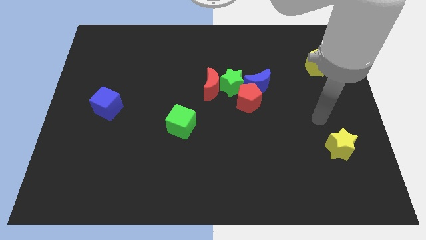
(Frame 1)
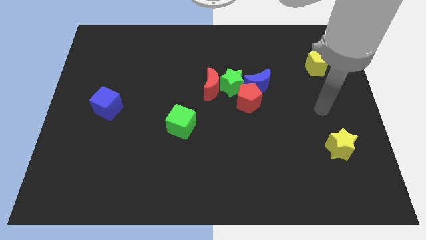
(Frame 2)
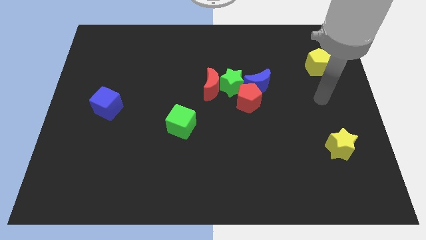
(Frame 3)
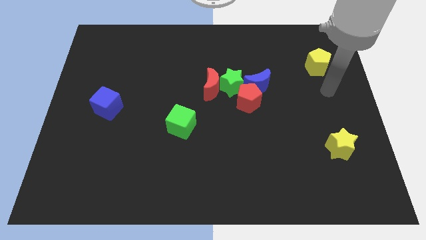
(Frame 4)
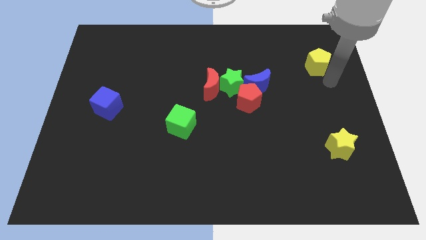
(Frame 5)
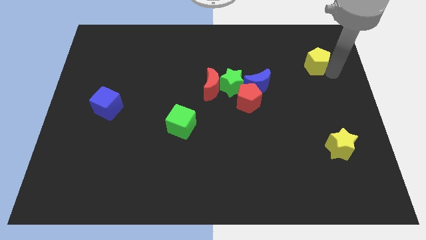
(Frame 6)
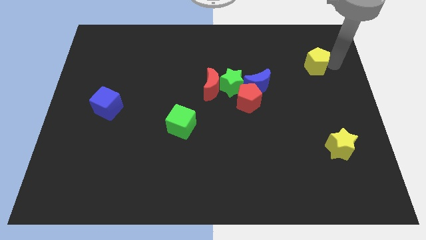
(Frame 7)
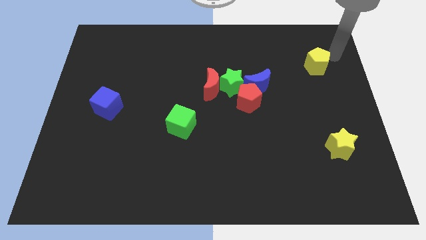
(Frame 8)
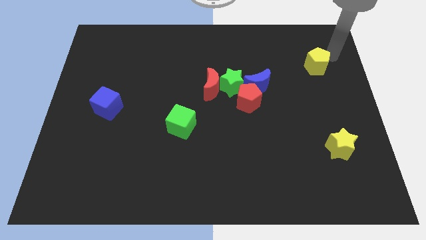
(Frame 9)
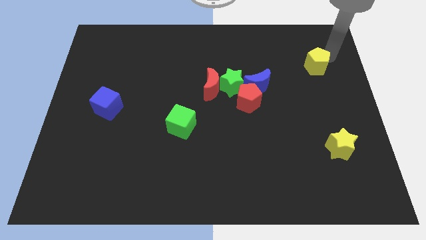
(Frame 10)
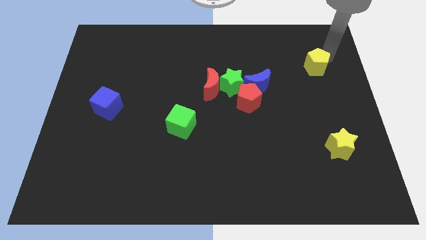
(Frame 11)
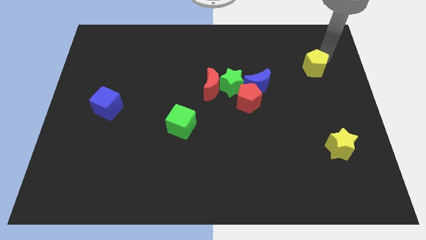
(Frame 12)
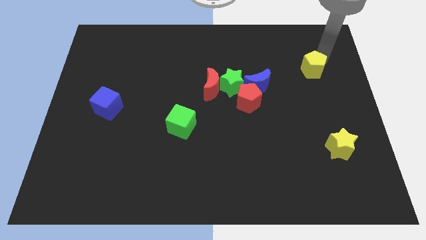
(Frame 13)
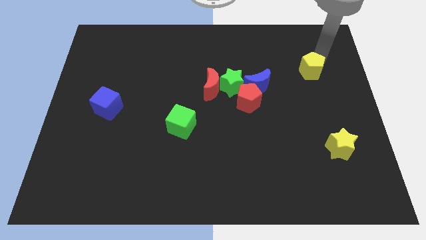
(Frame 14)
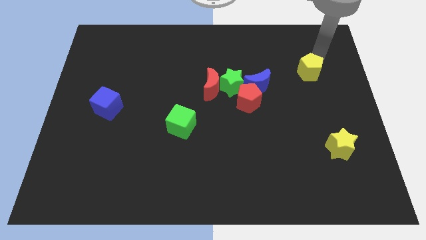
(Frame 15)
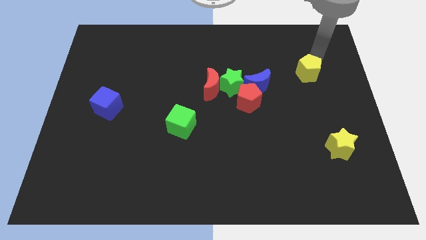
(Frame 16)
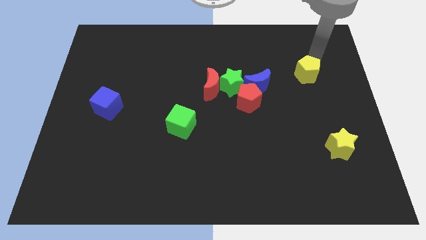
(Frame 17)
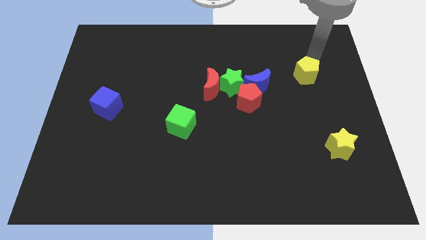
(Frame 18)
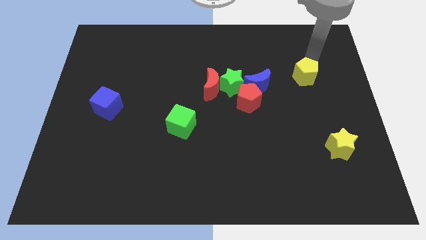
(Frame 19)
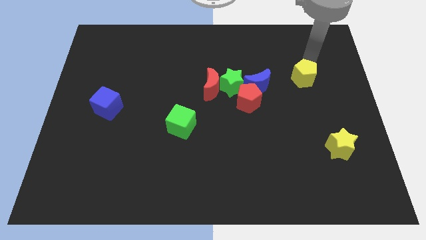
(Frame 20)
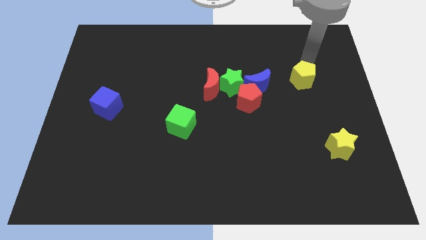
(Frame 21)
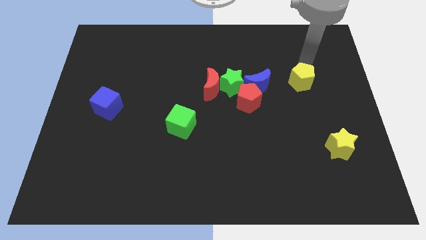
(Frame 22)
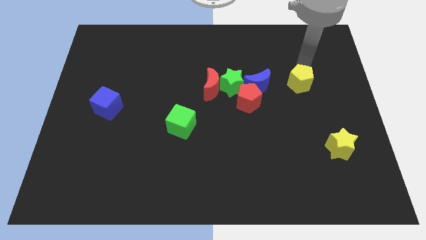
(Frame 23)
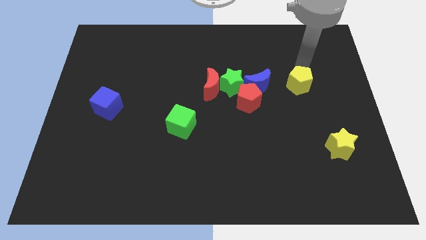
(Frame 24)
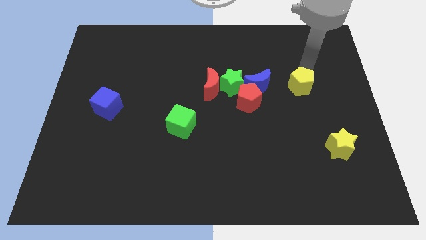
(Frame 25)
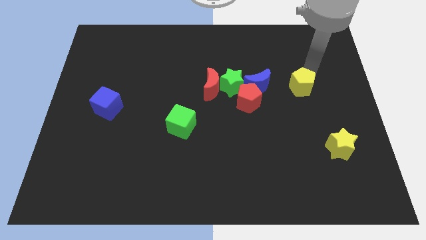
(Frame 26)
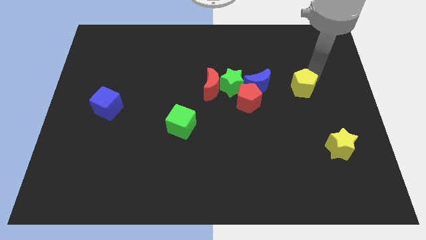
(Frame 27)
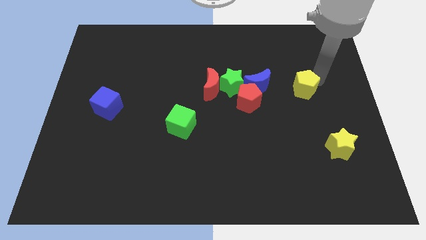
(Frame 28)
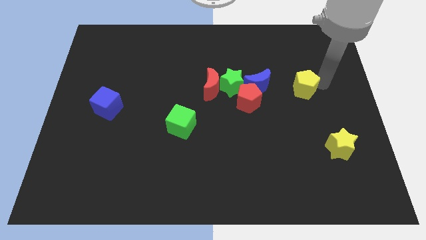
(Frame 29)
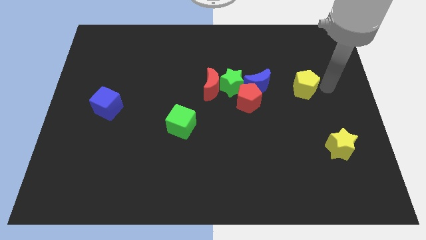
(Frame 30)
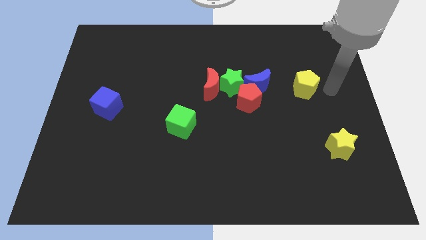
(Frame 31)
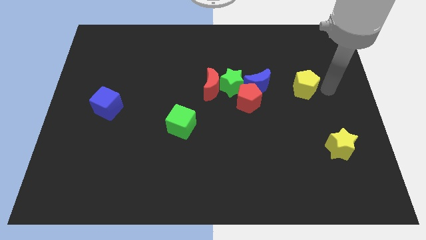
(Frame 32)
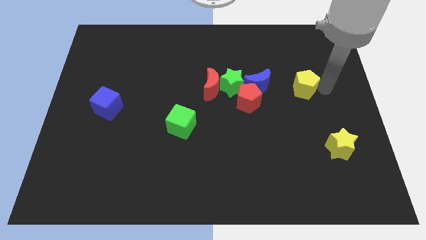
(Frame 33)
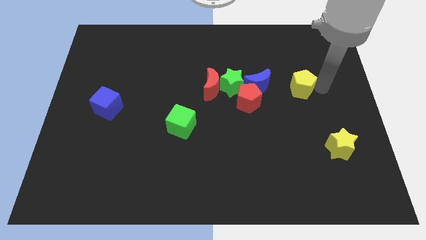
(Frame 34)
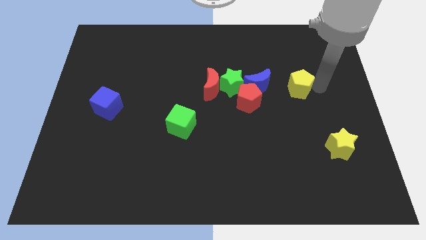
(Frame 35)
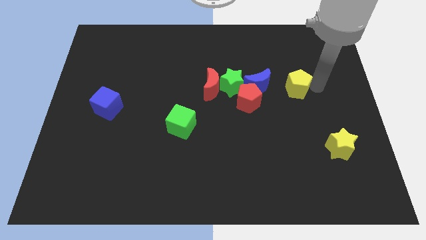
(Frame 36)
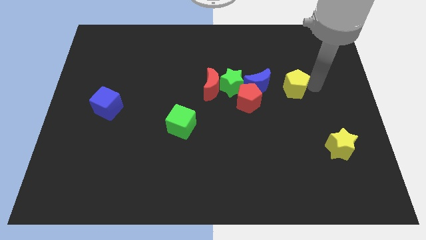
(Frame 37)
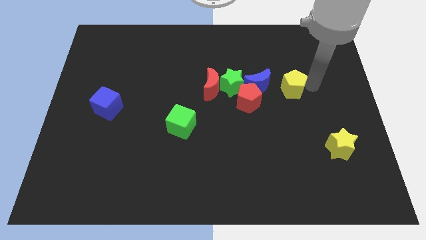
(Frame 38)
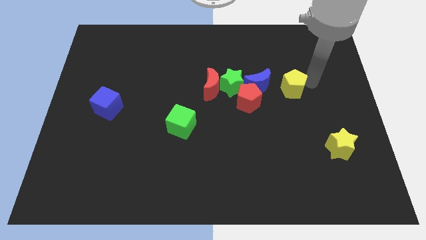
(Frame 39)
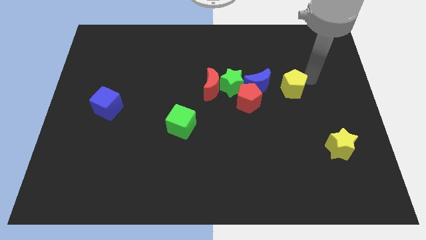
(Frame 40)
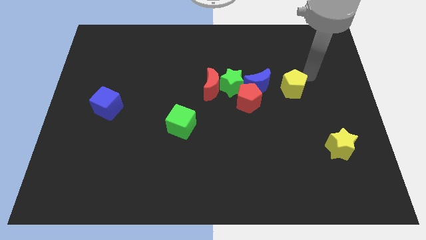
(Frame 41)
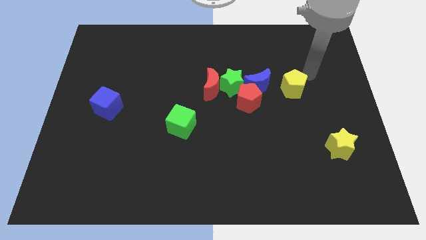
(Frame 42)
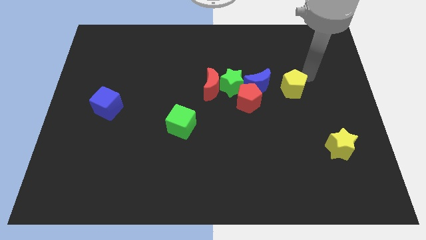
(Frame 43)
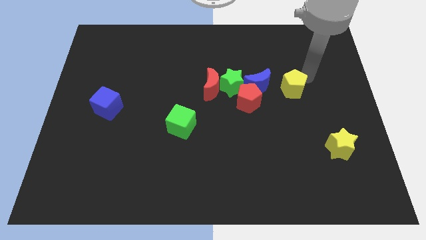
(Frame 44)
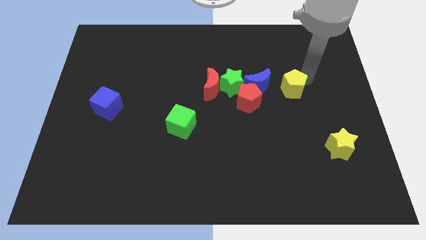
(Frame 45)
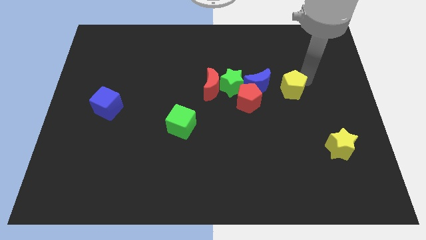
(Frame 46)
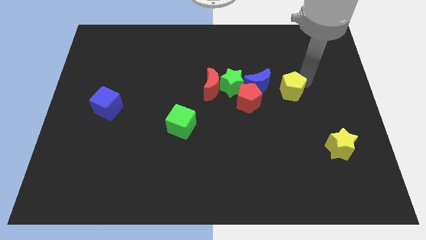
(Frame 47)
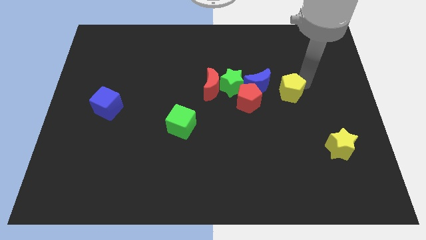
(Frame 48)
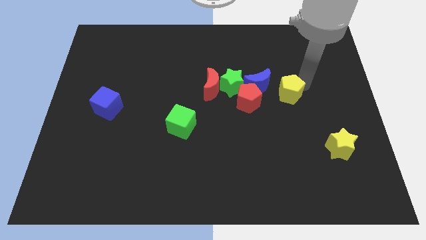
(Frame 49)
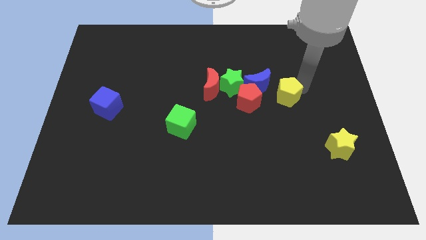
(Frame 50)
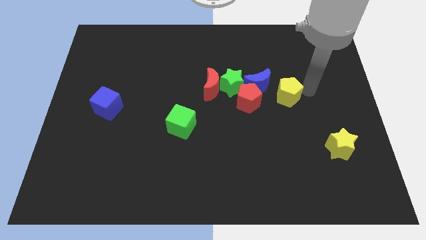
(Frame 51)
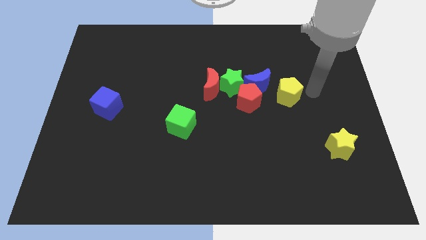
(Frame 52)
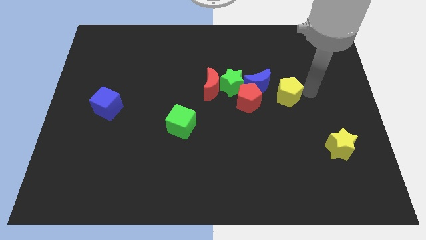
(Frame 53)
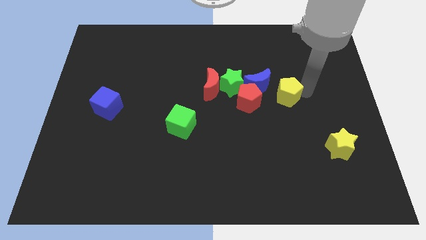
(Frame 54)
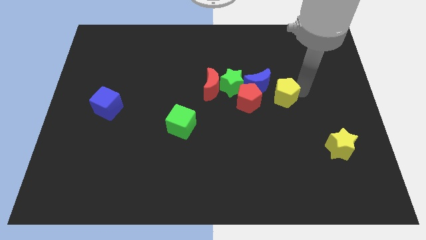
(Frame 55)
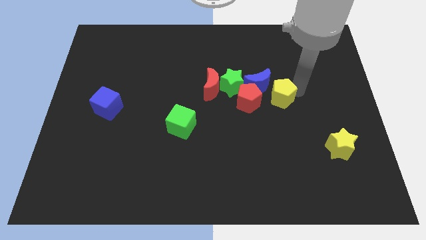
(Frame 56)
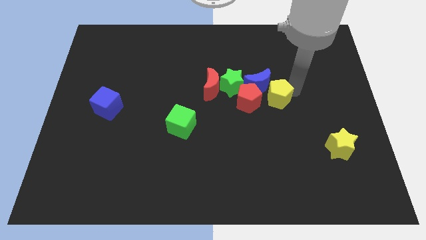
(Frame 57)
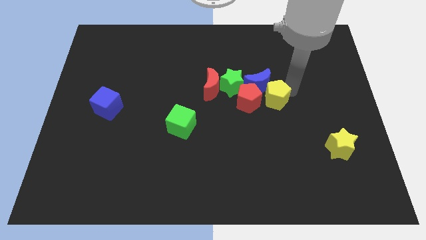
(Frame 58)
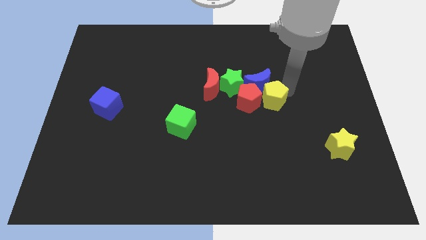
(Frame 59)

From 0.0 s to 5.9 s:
push the yellow pentagon to the red pentagon

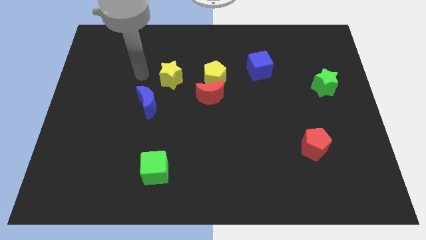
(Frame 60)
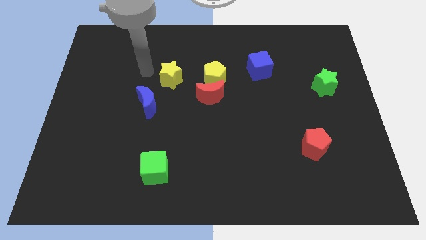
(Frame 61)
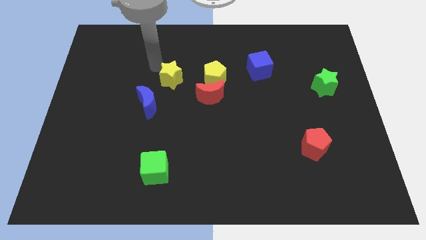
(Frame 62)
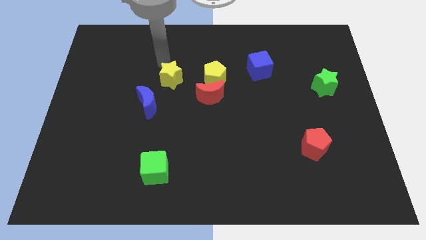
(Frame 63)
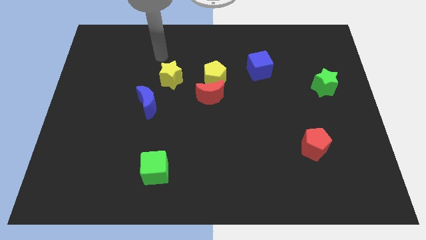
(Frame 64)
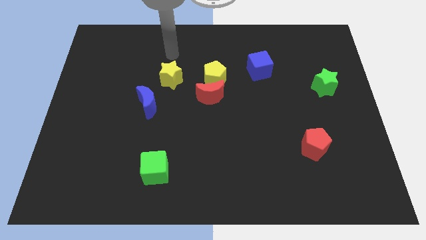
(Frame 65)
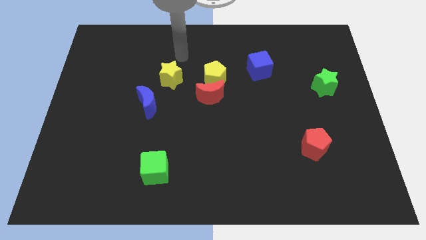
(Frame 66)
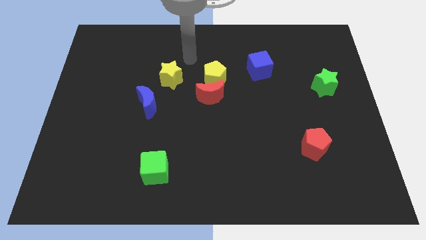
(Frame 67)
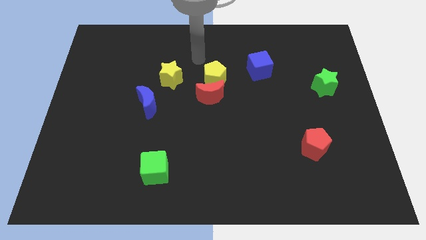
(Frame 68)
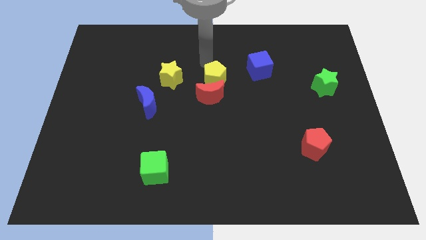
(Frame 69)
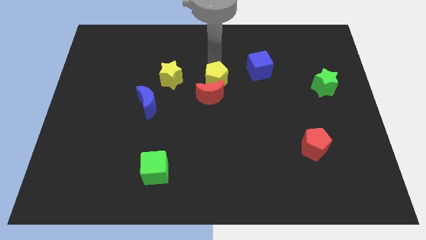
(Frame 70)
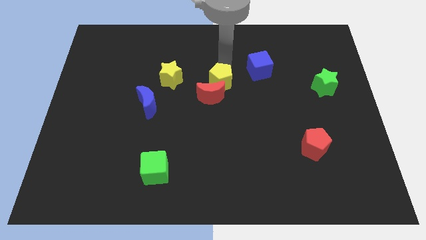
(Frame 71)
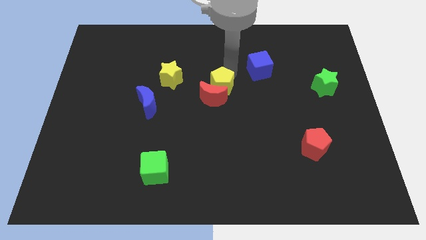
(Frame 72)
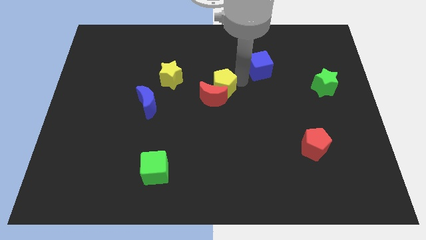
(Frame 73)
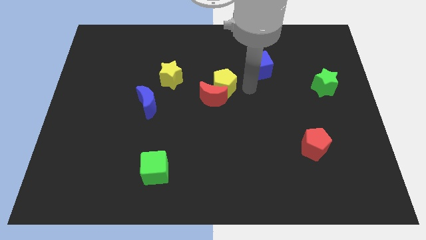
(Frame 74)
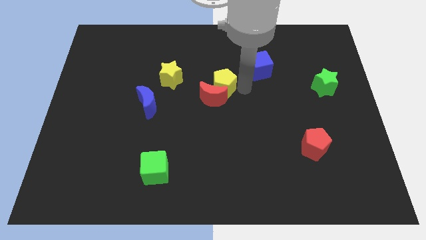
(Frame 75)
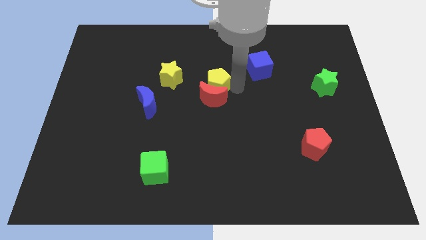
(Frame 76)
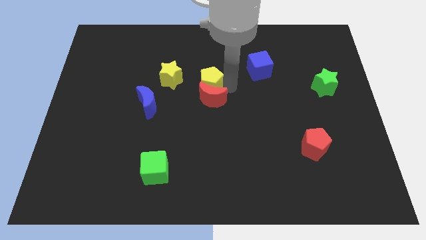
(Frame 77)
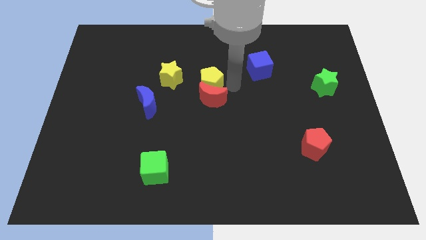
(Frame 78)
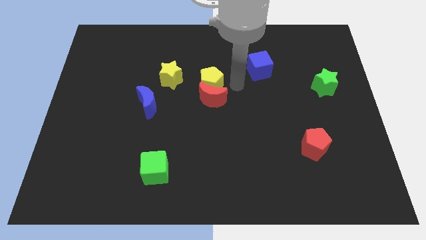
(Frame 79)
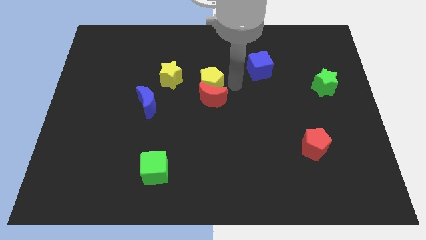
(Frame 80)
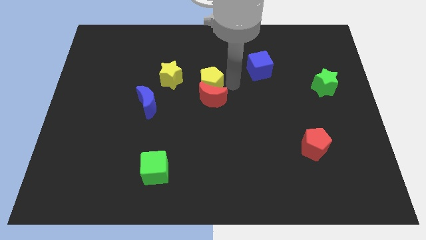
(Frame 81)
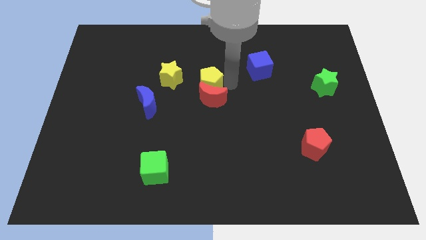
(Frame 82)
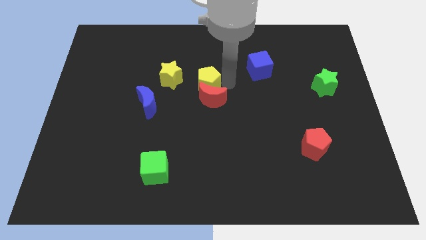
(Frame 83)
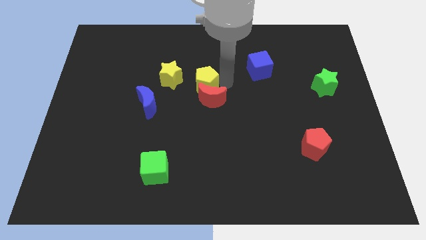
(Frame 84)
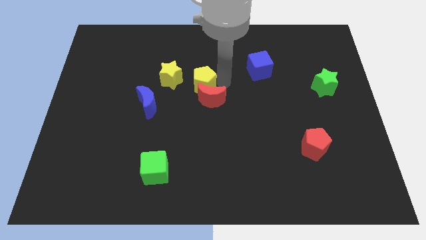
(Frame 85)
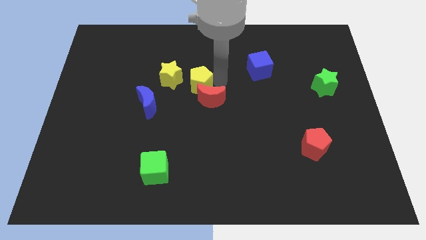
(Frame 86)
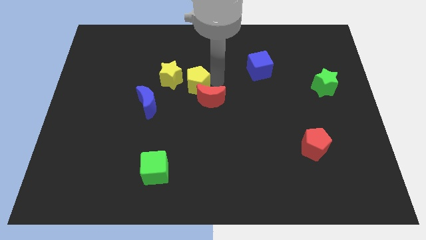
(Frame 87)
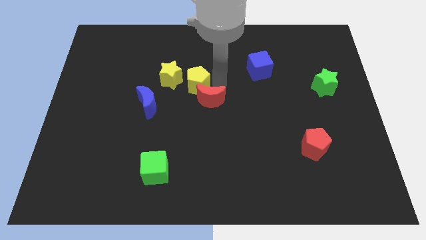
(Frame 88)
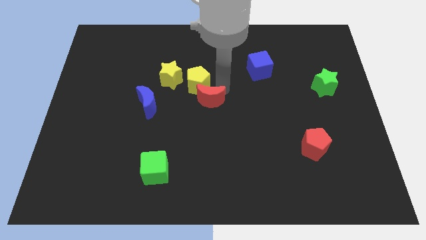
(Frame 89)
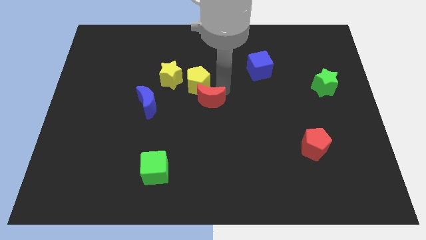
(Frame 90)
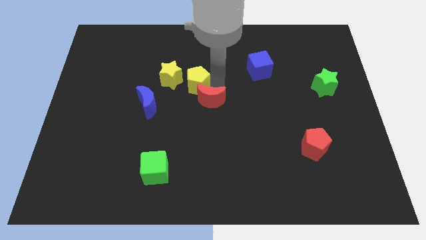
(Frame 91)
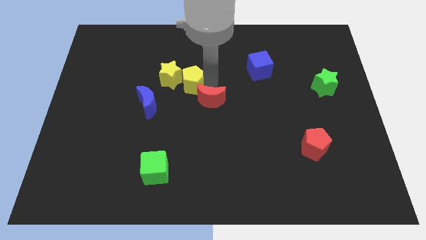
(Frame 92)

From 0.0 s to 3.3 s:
slide the yellow pentagon towards the yellow star
